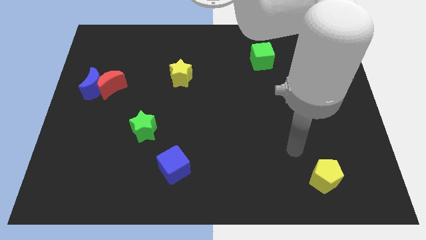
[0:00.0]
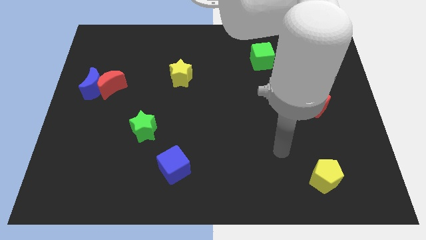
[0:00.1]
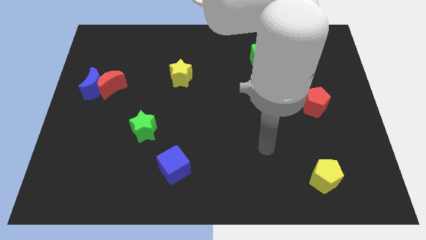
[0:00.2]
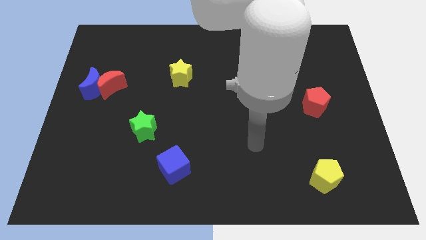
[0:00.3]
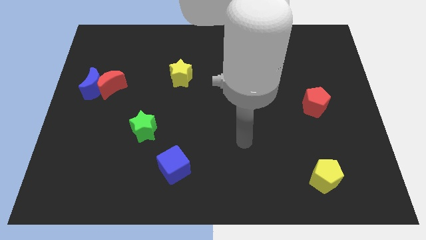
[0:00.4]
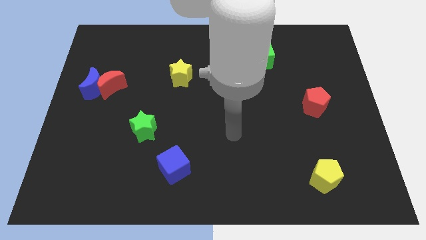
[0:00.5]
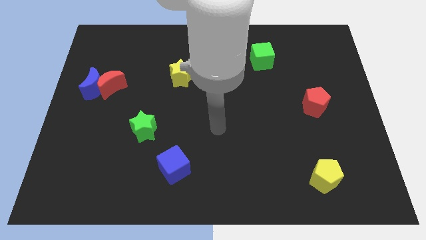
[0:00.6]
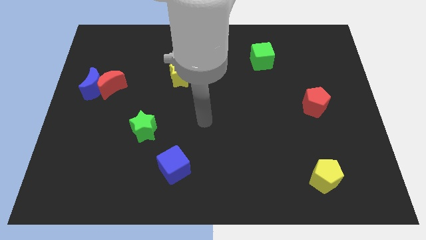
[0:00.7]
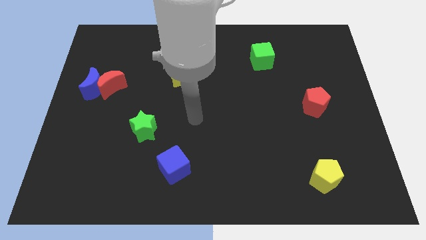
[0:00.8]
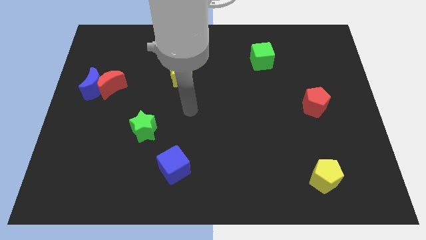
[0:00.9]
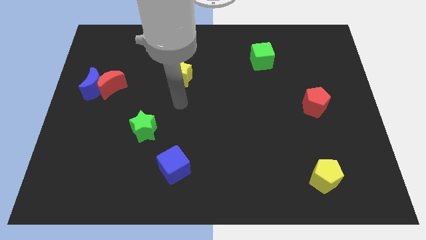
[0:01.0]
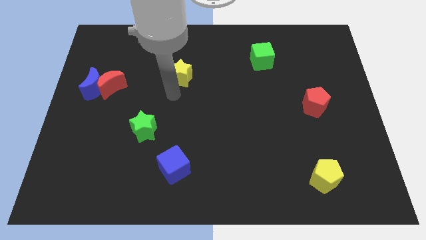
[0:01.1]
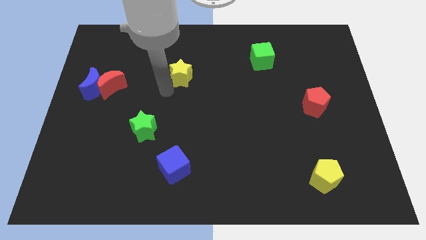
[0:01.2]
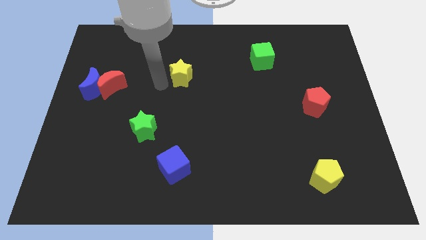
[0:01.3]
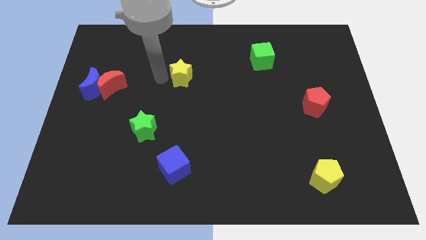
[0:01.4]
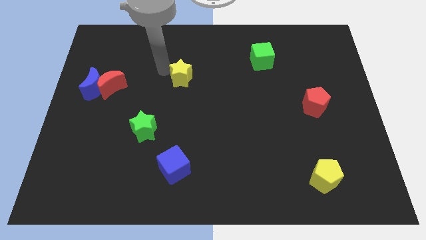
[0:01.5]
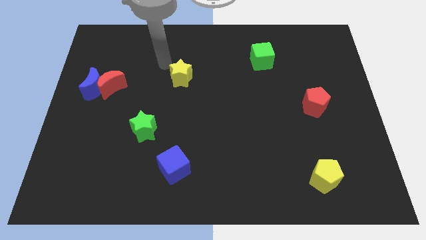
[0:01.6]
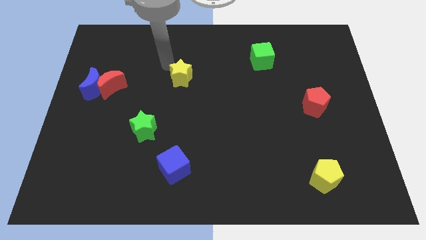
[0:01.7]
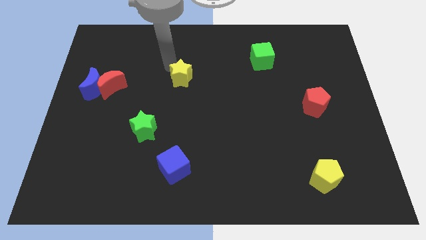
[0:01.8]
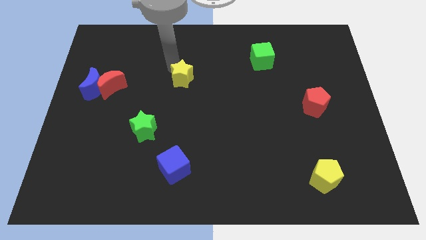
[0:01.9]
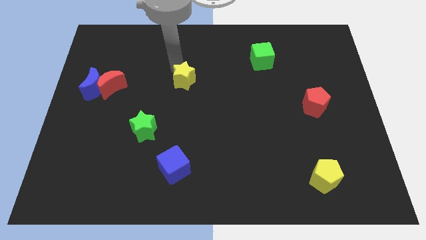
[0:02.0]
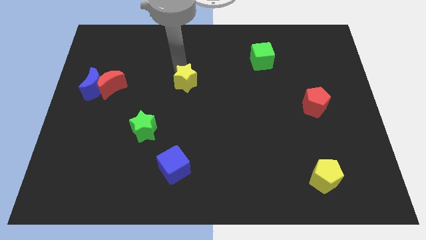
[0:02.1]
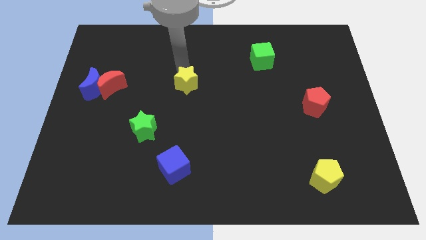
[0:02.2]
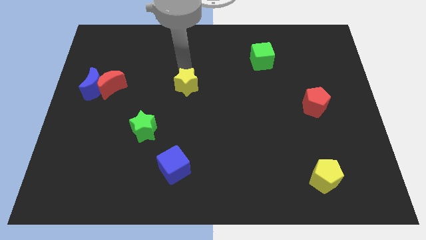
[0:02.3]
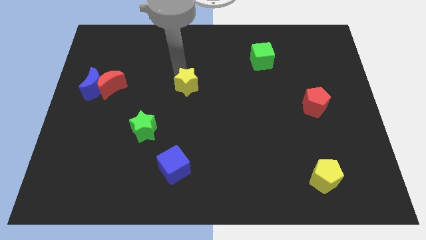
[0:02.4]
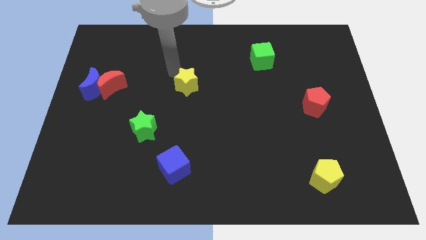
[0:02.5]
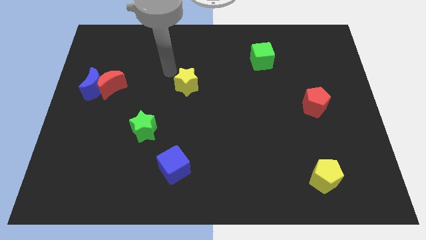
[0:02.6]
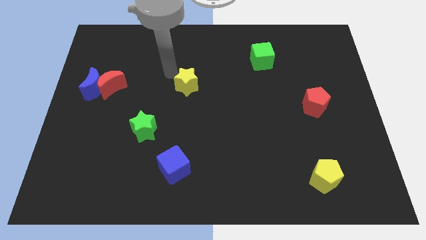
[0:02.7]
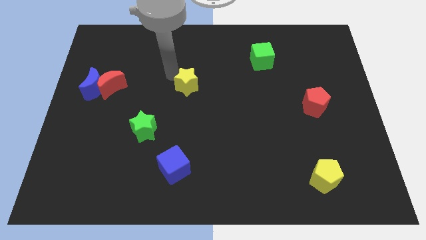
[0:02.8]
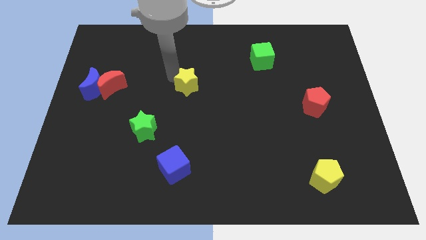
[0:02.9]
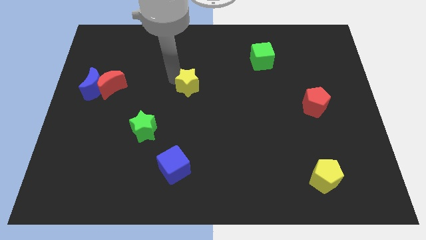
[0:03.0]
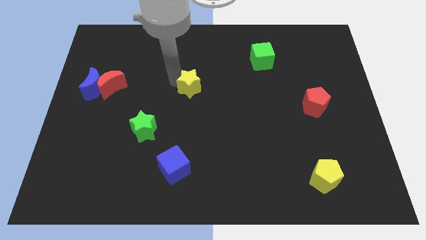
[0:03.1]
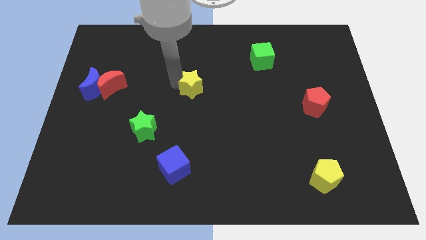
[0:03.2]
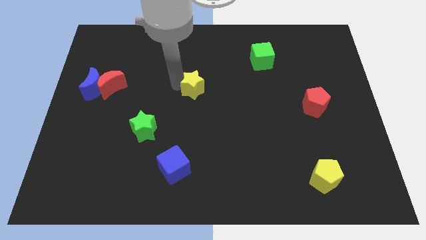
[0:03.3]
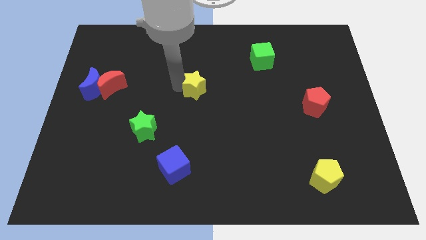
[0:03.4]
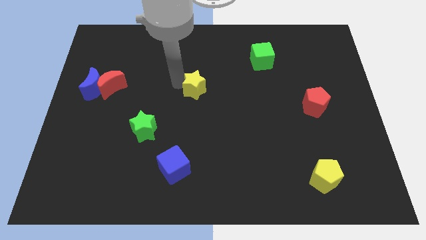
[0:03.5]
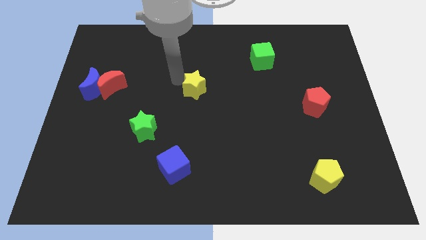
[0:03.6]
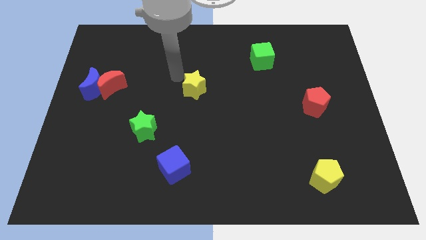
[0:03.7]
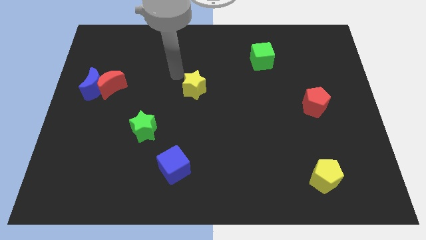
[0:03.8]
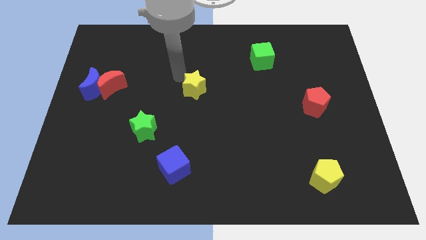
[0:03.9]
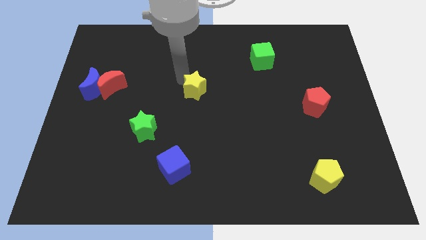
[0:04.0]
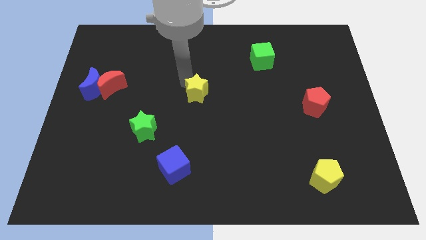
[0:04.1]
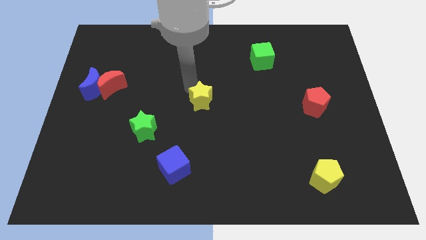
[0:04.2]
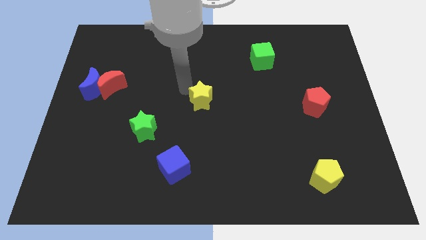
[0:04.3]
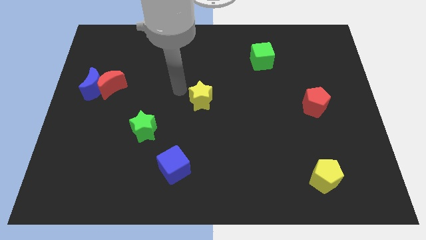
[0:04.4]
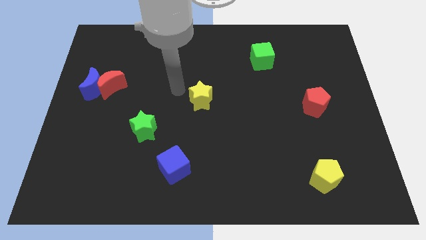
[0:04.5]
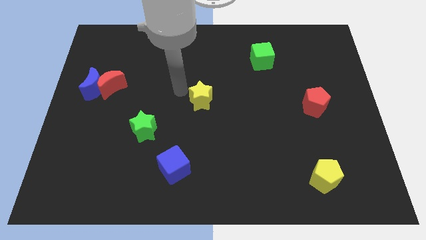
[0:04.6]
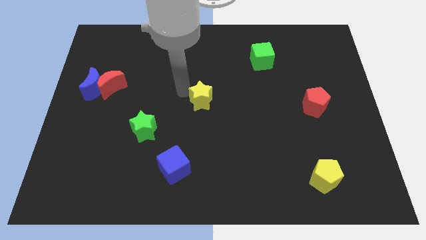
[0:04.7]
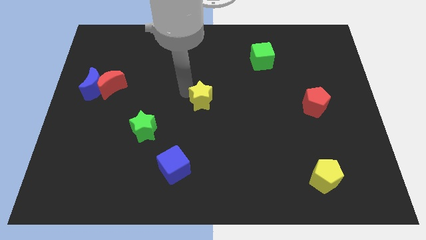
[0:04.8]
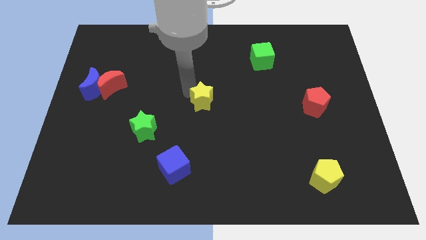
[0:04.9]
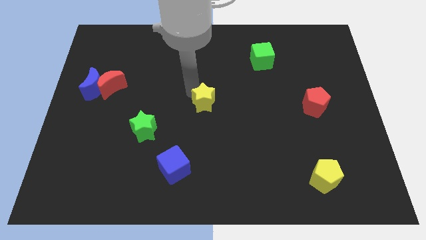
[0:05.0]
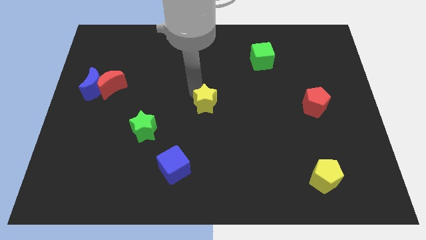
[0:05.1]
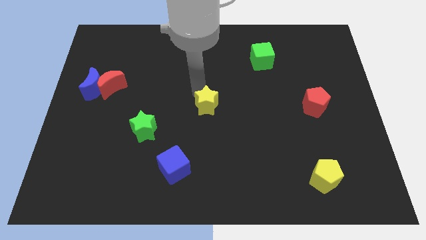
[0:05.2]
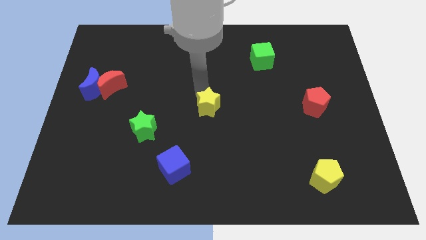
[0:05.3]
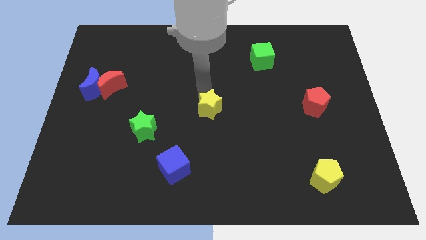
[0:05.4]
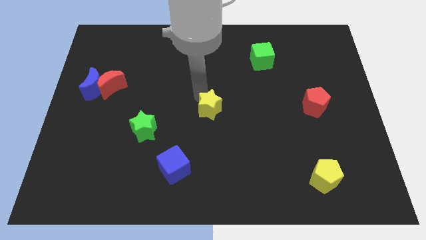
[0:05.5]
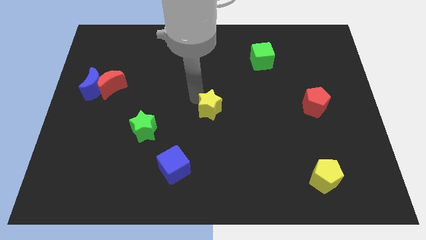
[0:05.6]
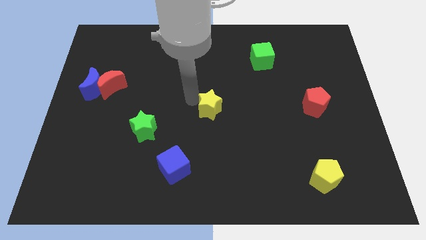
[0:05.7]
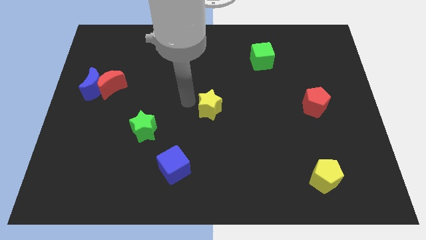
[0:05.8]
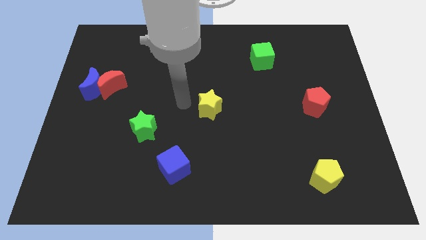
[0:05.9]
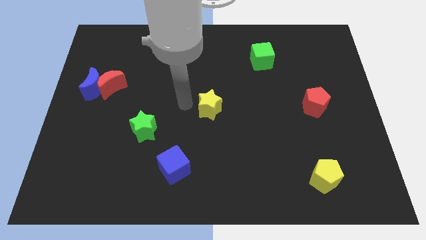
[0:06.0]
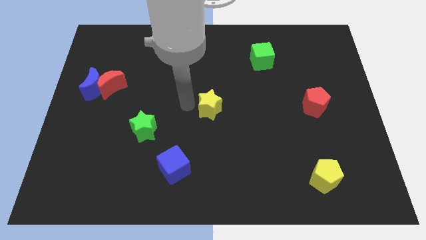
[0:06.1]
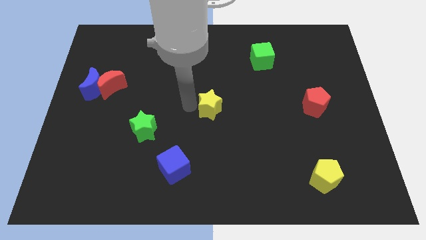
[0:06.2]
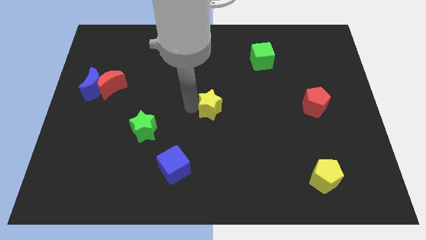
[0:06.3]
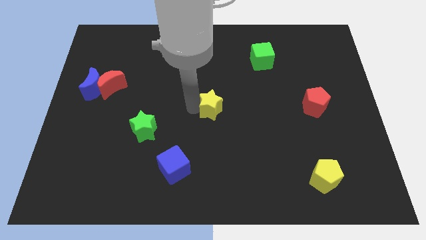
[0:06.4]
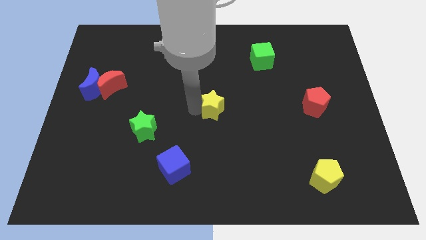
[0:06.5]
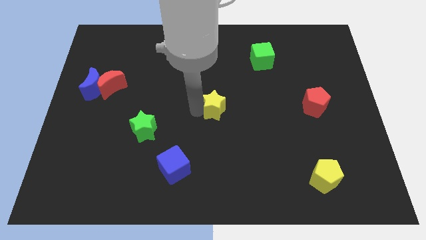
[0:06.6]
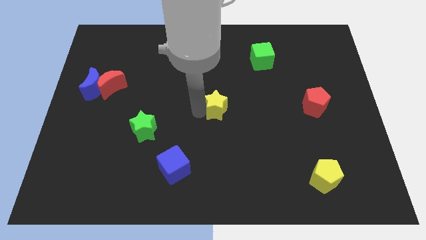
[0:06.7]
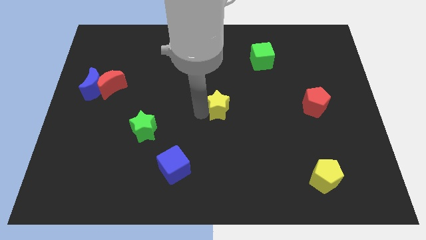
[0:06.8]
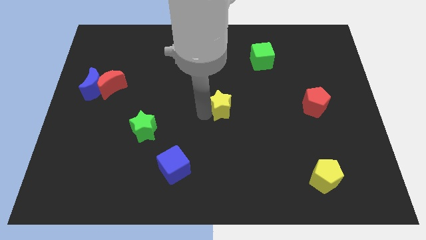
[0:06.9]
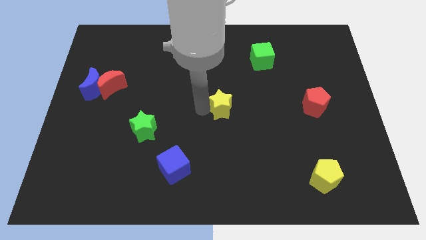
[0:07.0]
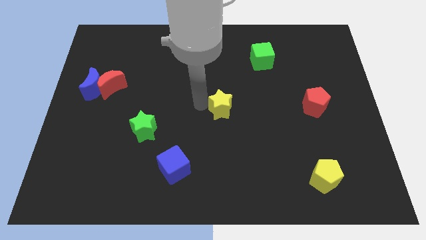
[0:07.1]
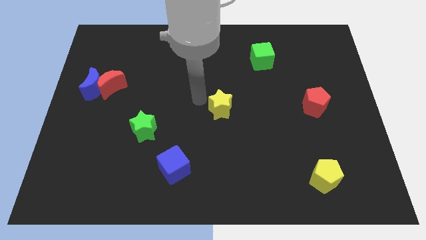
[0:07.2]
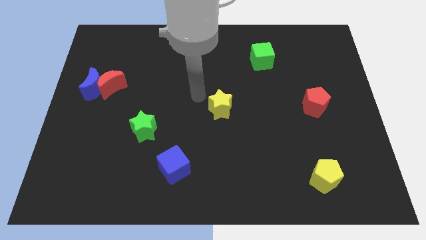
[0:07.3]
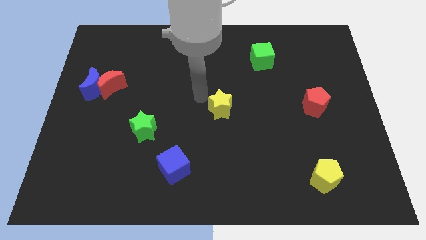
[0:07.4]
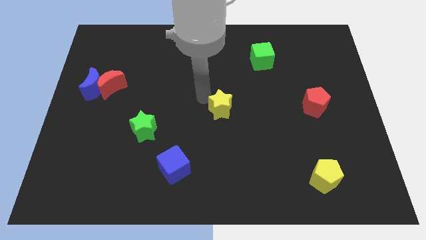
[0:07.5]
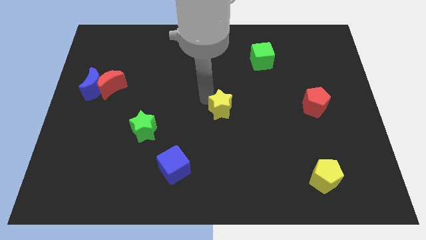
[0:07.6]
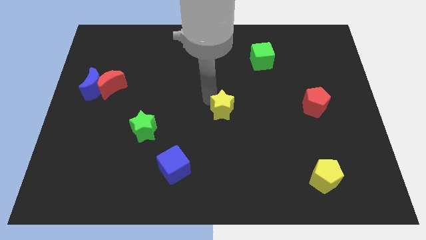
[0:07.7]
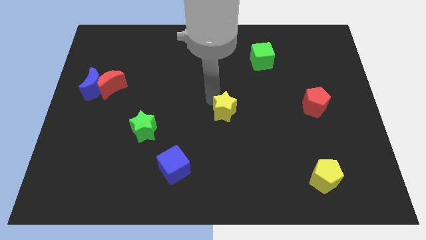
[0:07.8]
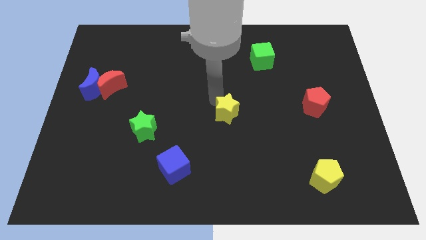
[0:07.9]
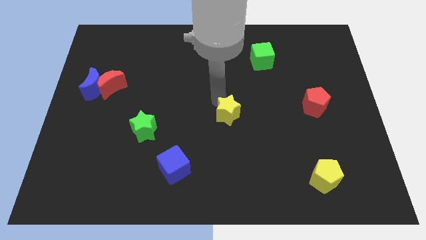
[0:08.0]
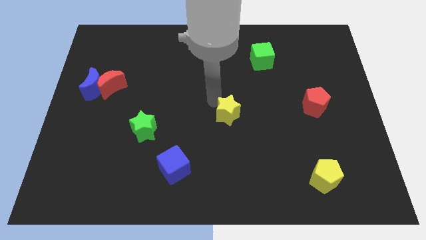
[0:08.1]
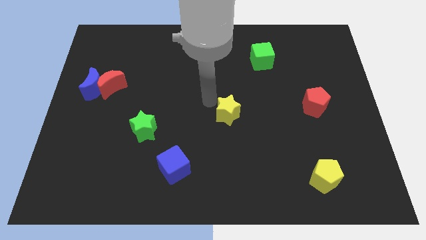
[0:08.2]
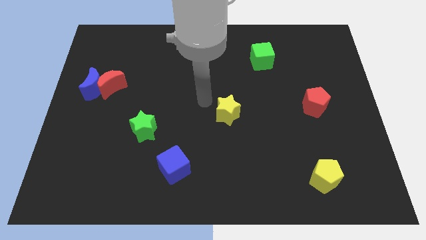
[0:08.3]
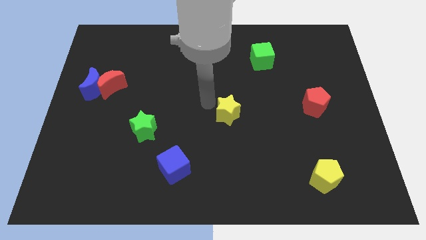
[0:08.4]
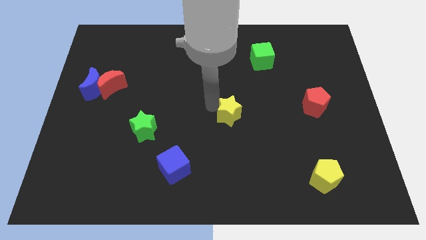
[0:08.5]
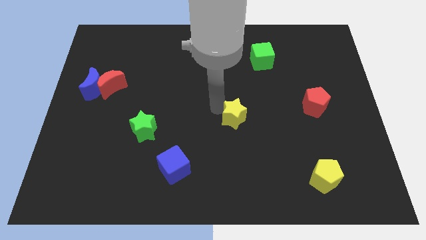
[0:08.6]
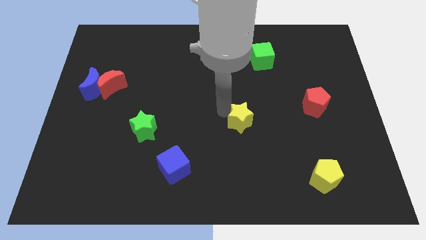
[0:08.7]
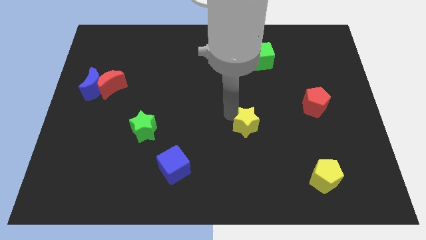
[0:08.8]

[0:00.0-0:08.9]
push the yellow star down and to the right
